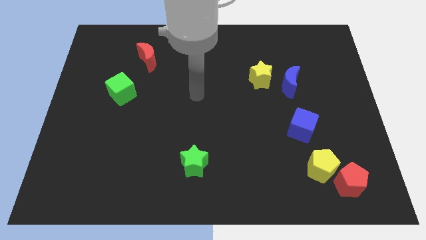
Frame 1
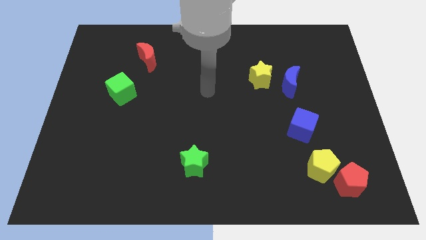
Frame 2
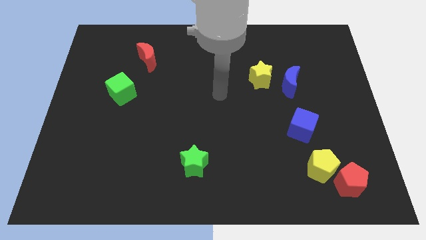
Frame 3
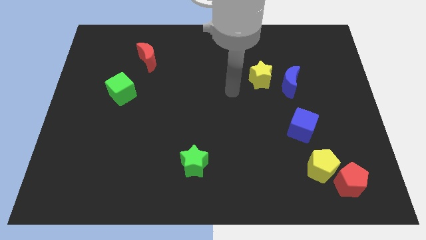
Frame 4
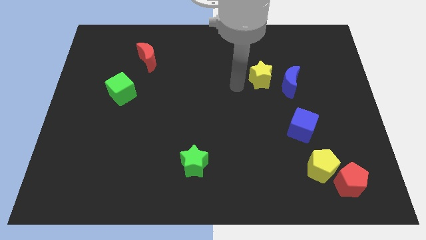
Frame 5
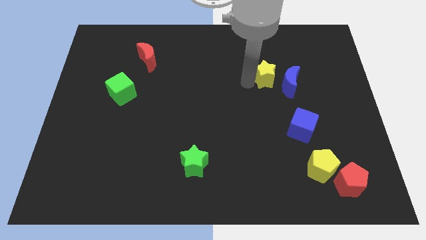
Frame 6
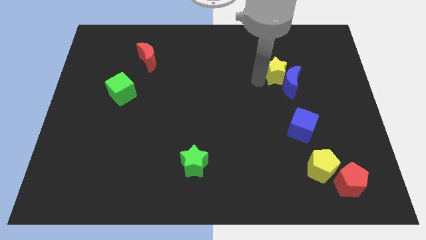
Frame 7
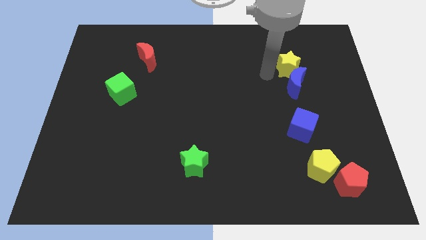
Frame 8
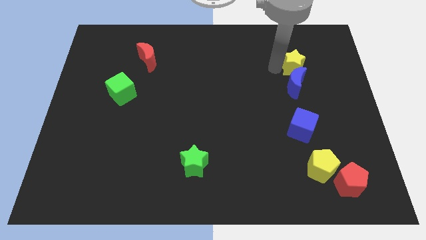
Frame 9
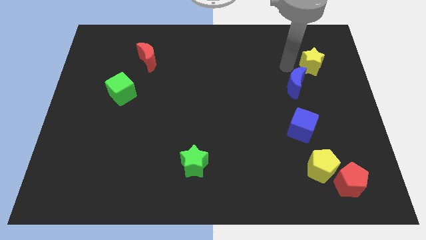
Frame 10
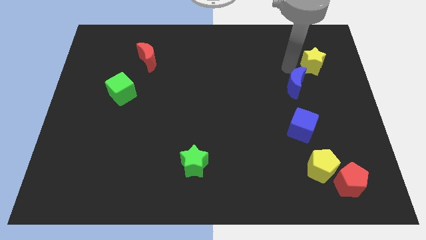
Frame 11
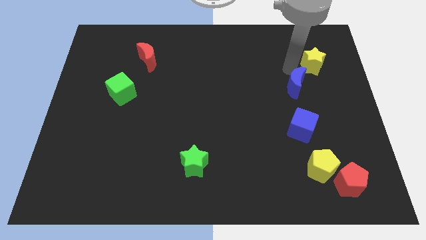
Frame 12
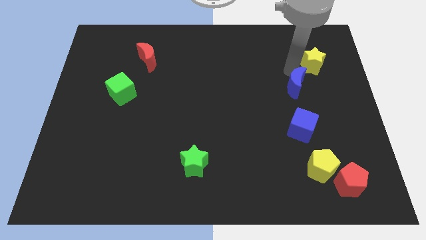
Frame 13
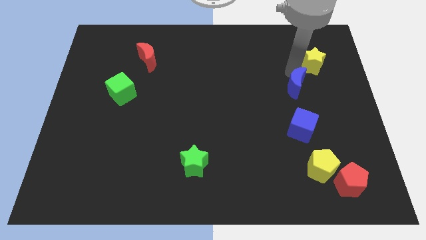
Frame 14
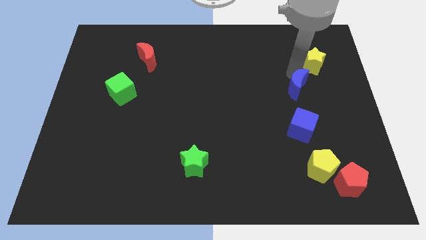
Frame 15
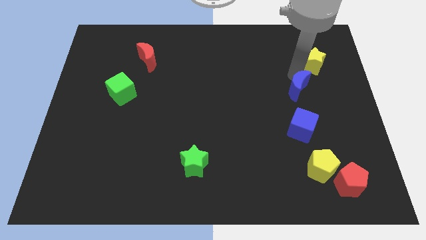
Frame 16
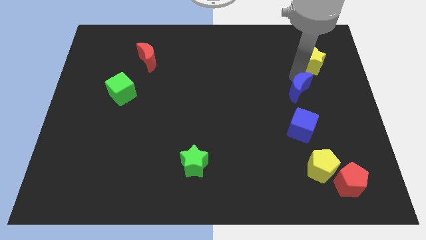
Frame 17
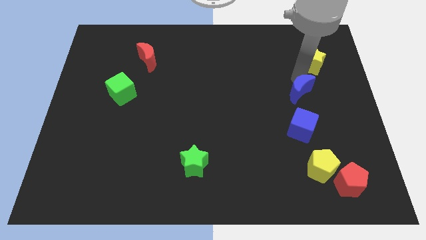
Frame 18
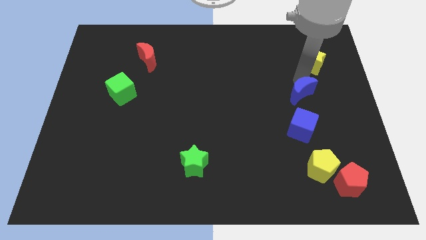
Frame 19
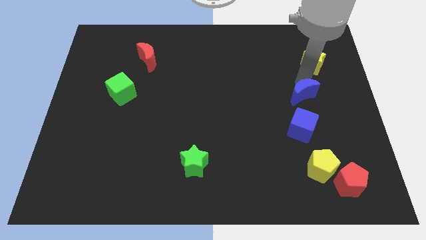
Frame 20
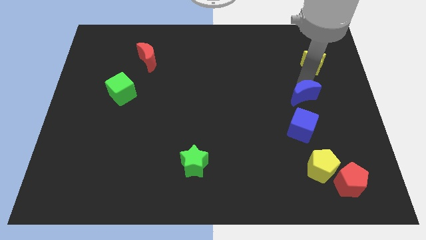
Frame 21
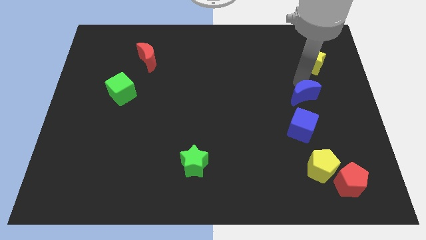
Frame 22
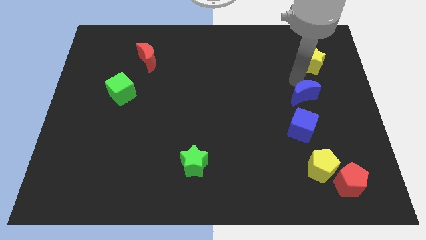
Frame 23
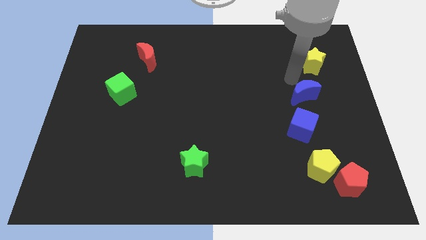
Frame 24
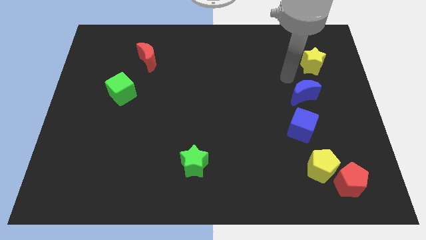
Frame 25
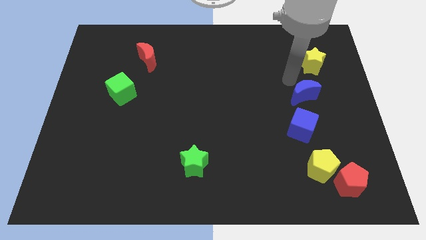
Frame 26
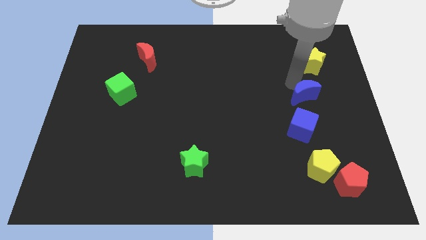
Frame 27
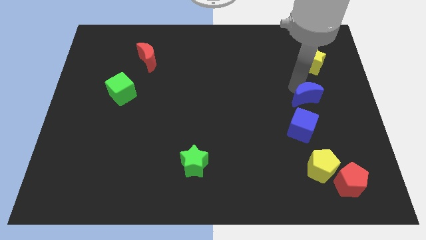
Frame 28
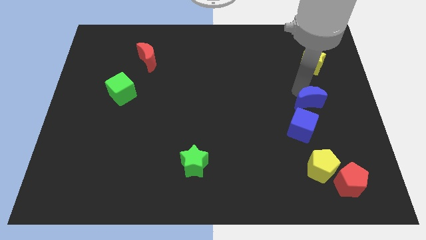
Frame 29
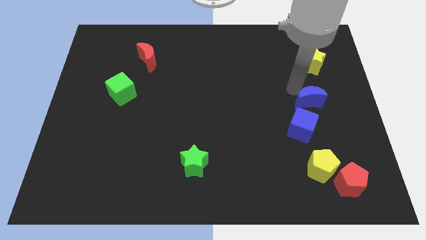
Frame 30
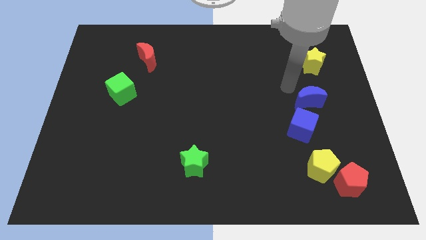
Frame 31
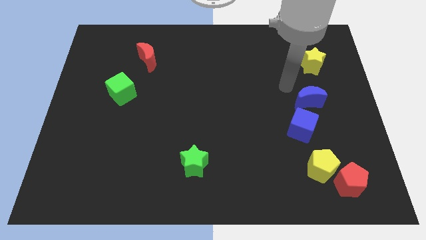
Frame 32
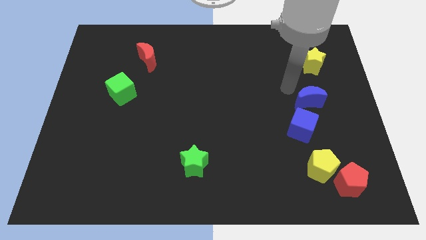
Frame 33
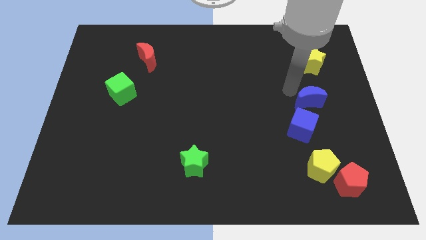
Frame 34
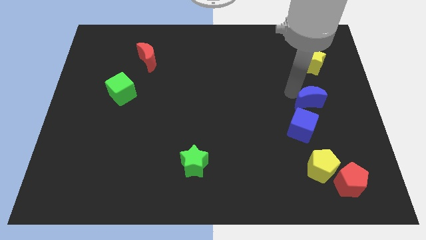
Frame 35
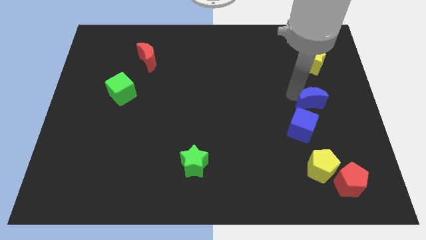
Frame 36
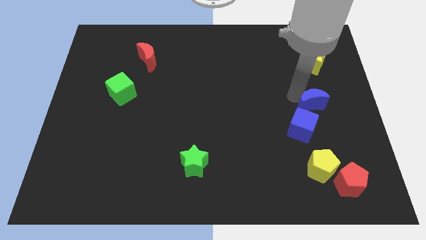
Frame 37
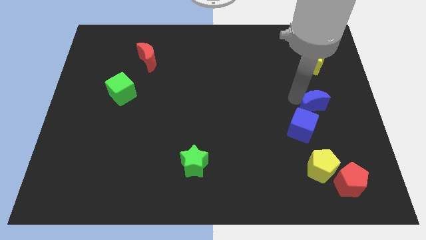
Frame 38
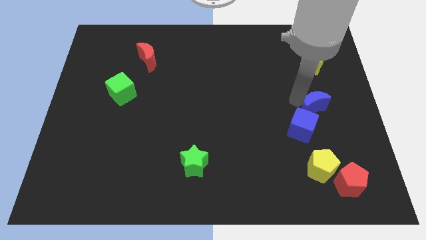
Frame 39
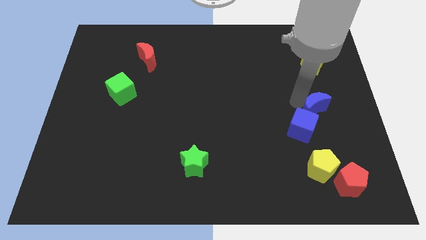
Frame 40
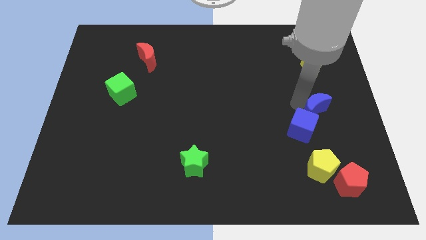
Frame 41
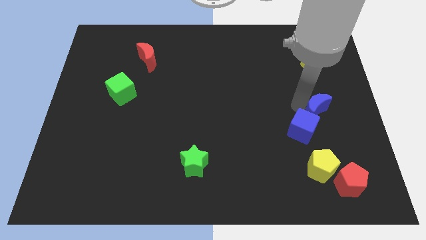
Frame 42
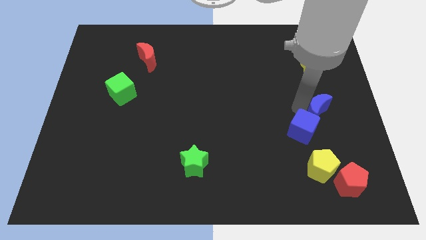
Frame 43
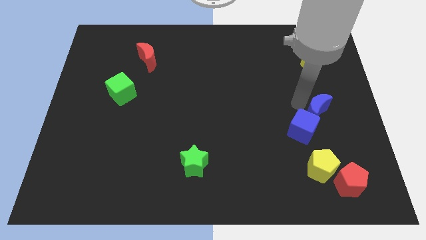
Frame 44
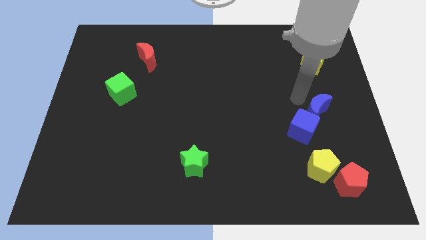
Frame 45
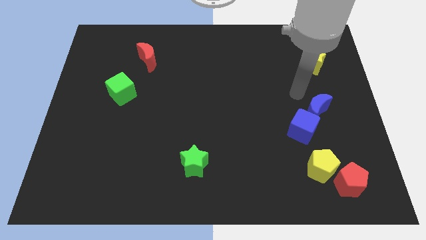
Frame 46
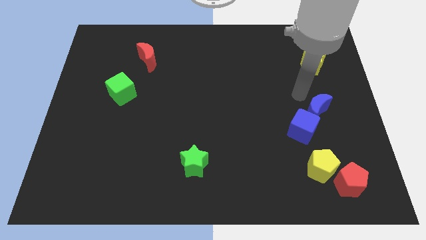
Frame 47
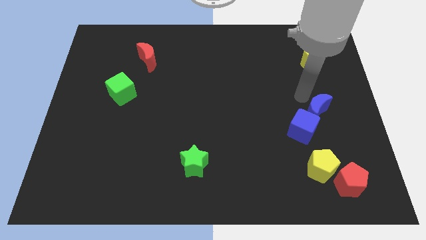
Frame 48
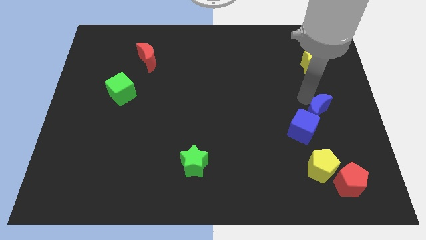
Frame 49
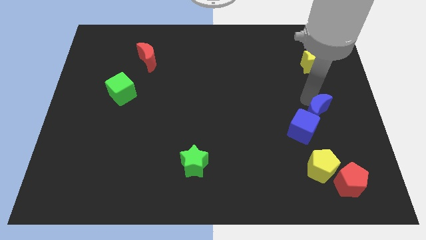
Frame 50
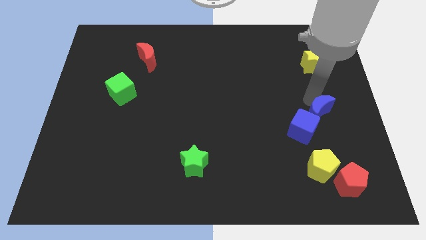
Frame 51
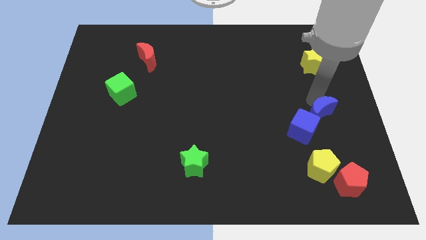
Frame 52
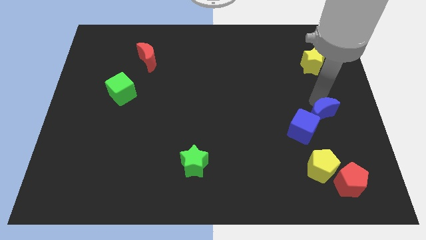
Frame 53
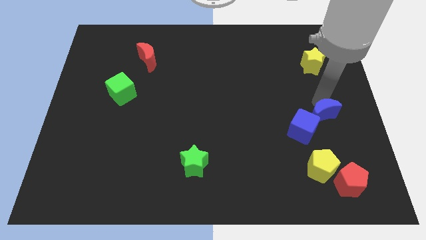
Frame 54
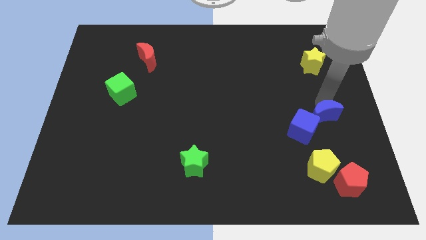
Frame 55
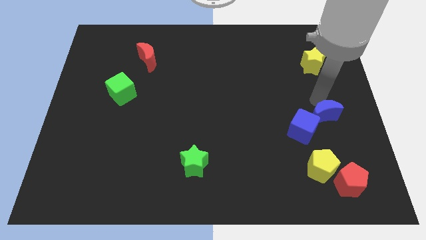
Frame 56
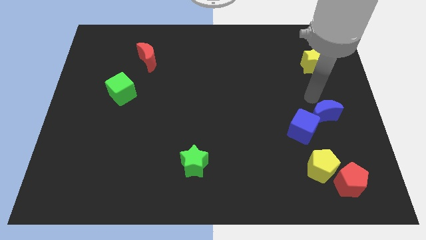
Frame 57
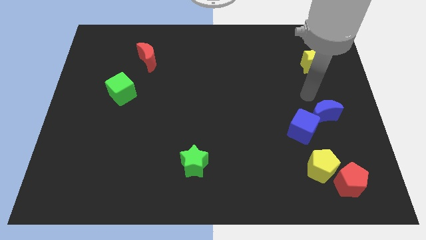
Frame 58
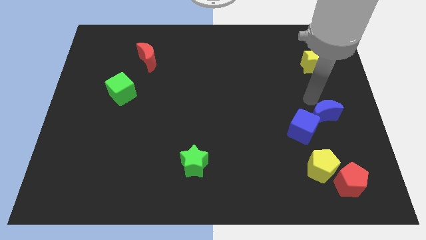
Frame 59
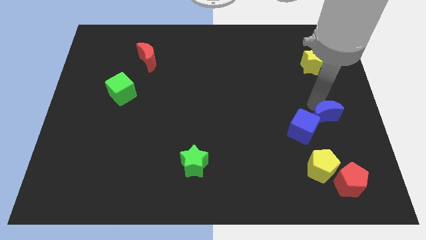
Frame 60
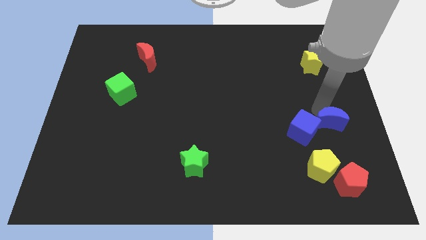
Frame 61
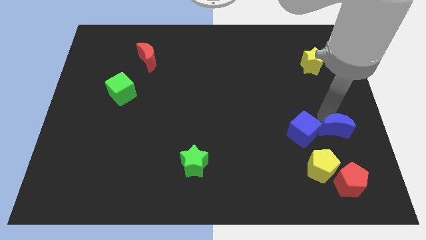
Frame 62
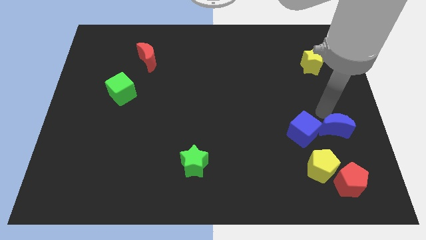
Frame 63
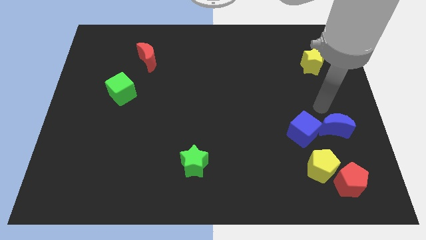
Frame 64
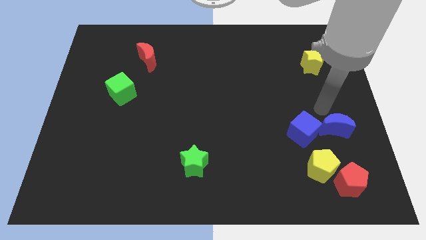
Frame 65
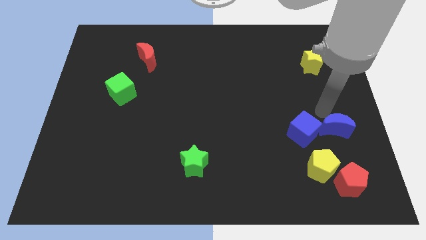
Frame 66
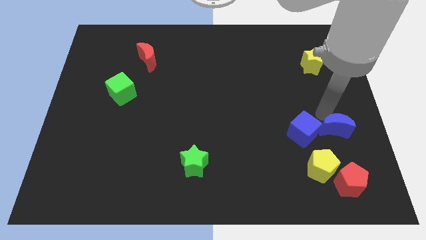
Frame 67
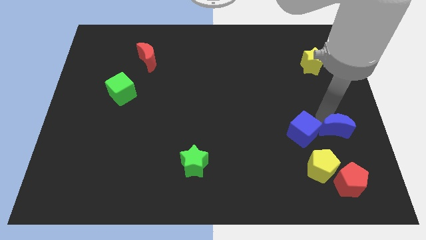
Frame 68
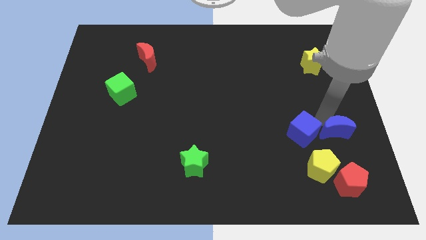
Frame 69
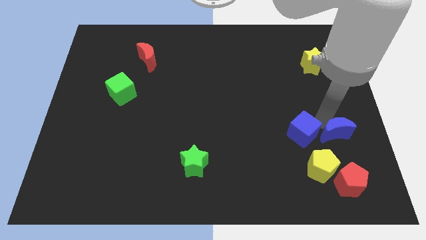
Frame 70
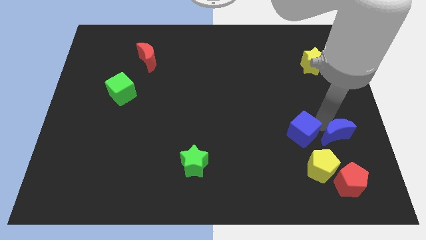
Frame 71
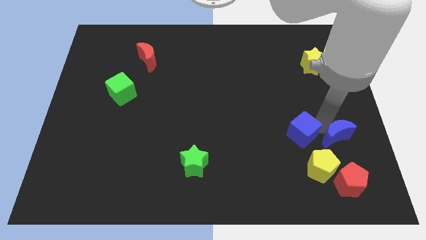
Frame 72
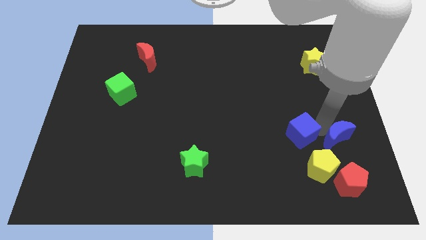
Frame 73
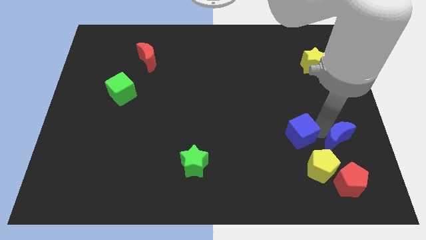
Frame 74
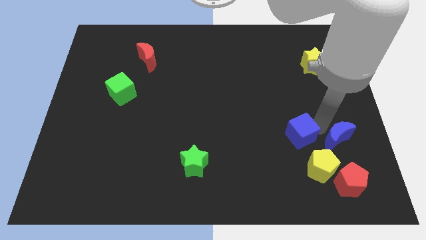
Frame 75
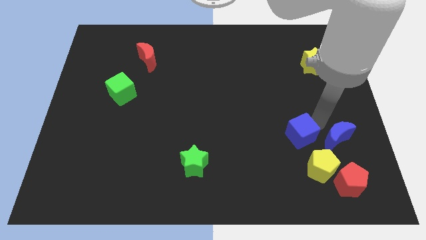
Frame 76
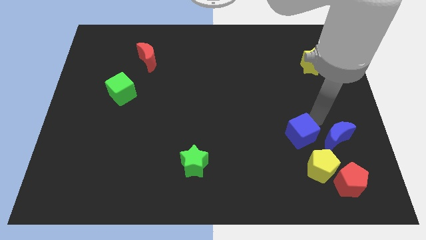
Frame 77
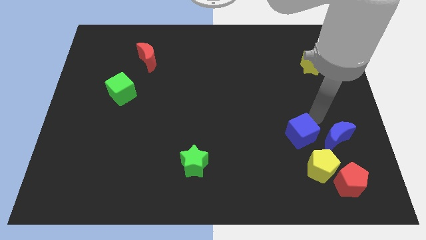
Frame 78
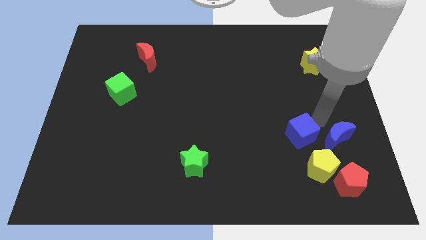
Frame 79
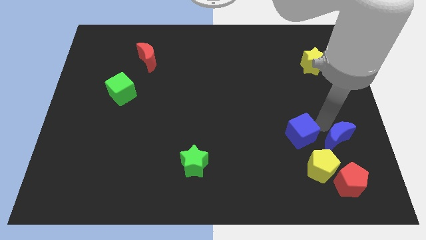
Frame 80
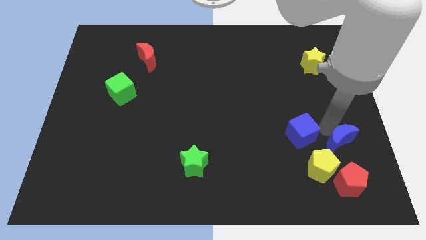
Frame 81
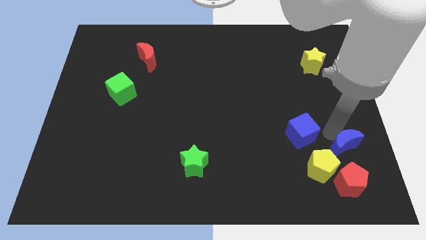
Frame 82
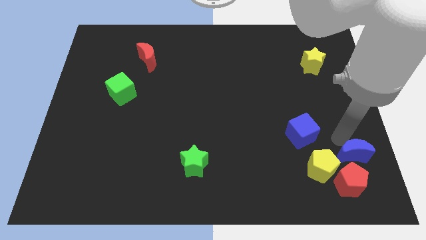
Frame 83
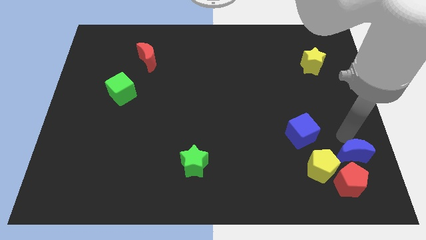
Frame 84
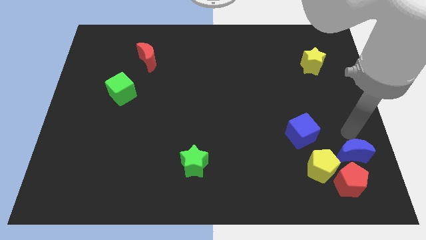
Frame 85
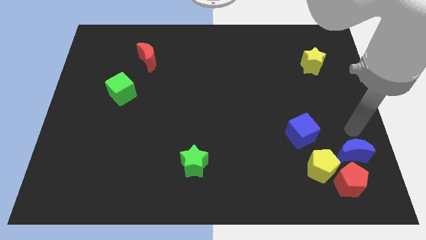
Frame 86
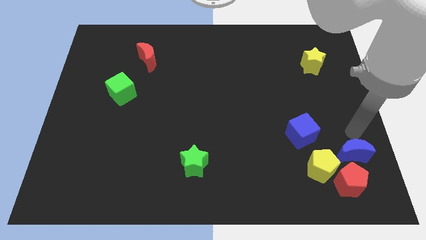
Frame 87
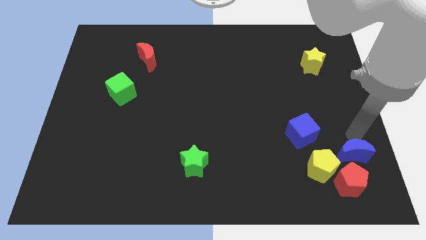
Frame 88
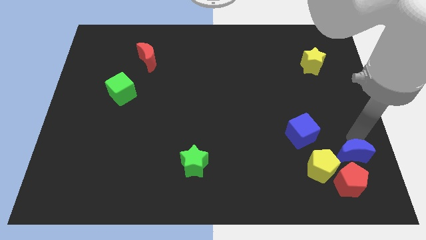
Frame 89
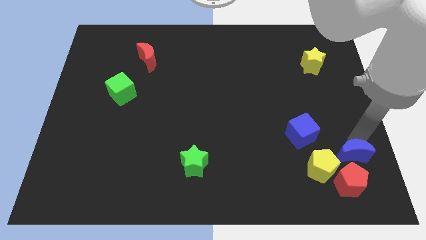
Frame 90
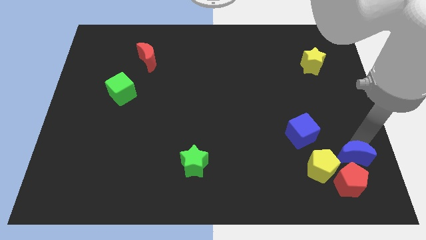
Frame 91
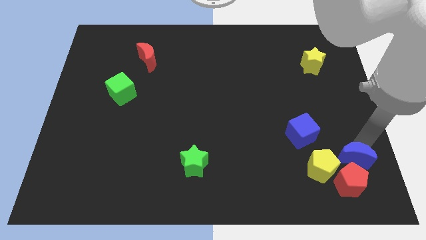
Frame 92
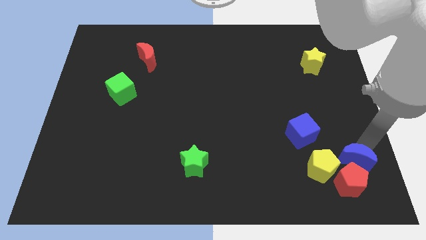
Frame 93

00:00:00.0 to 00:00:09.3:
move the blue moon towards the red pentagon
